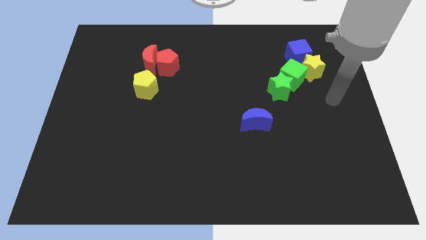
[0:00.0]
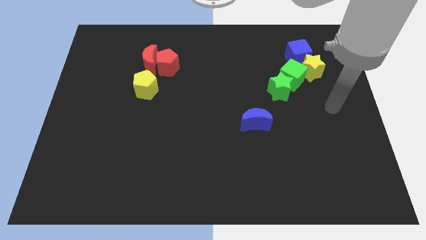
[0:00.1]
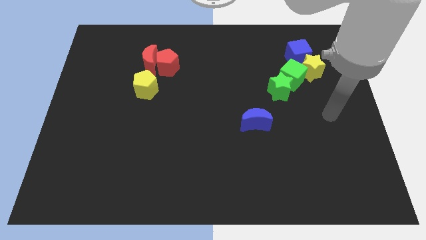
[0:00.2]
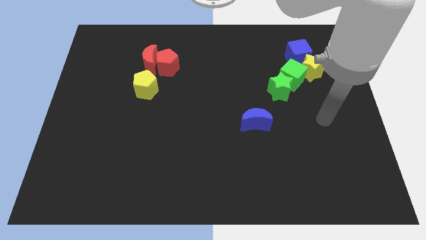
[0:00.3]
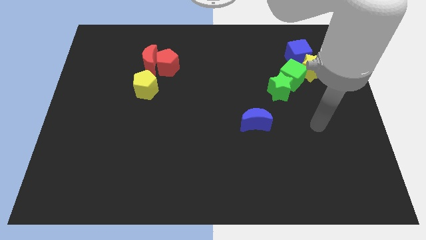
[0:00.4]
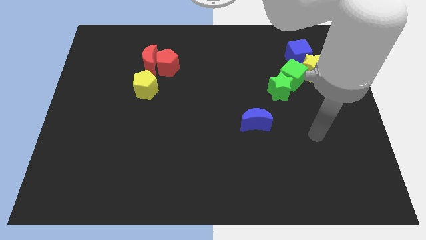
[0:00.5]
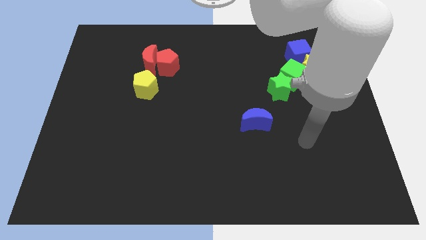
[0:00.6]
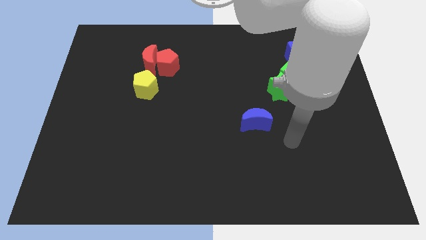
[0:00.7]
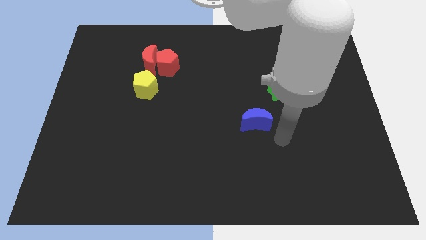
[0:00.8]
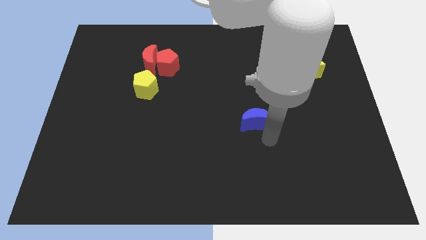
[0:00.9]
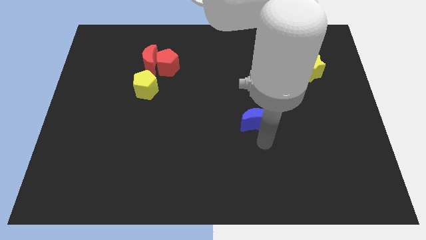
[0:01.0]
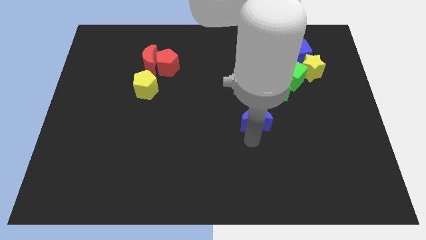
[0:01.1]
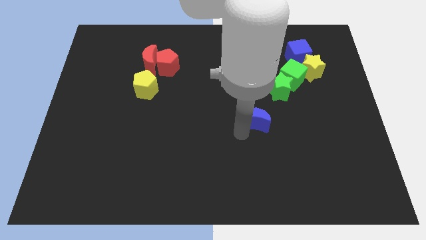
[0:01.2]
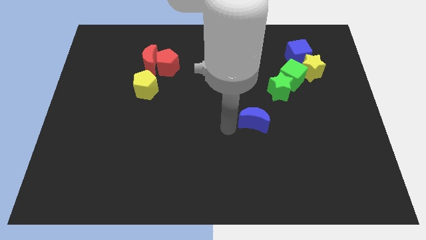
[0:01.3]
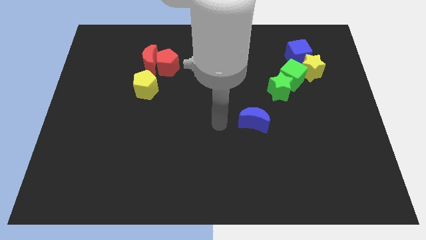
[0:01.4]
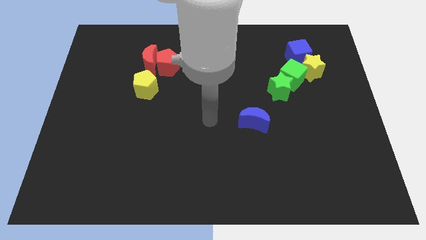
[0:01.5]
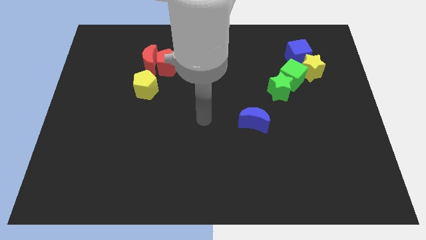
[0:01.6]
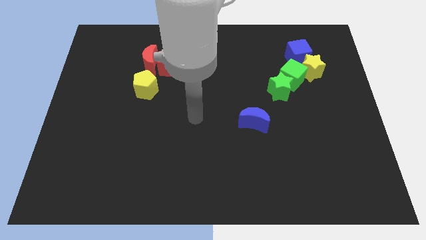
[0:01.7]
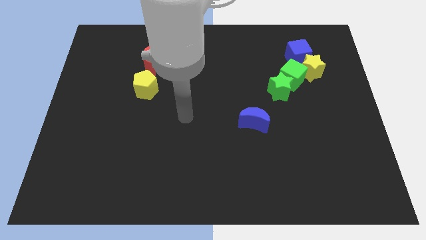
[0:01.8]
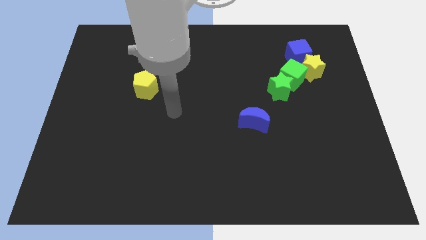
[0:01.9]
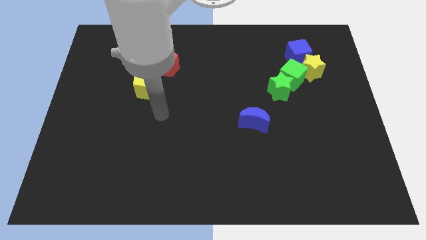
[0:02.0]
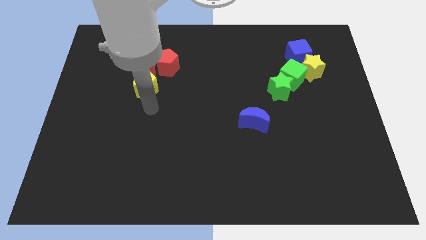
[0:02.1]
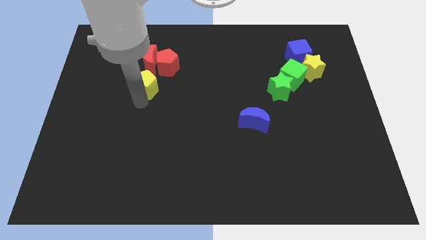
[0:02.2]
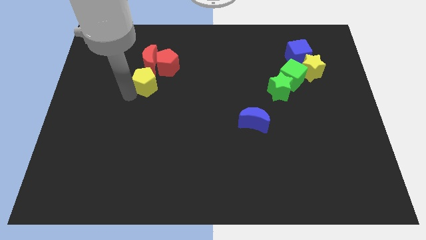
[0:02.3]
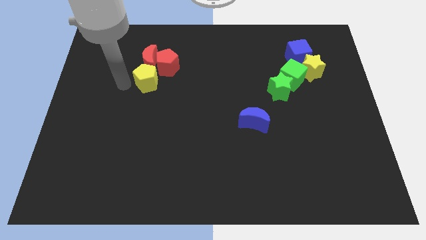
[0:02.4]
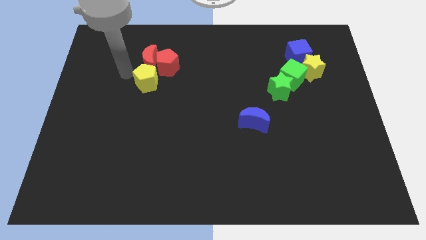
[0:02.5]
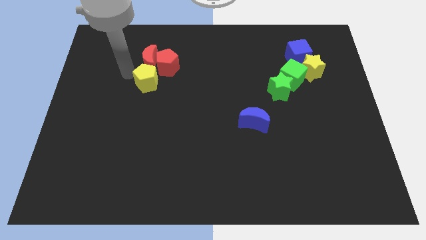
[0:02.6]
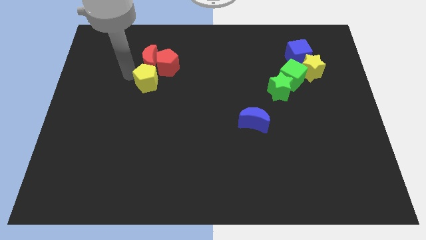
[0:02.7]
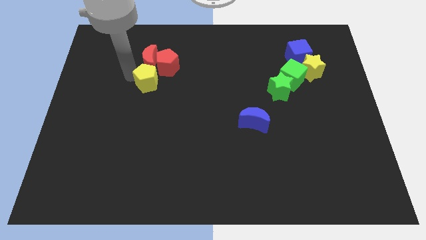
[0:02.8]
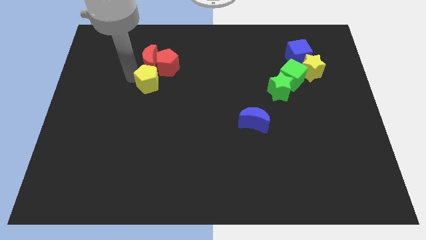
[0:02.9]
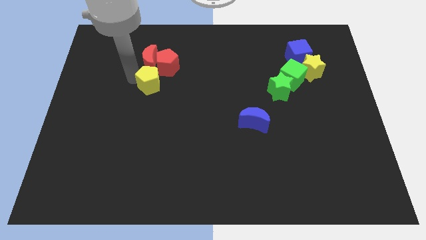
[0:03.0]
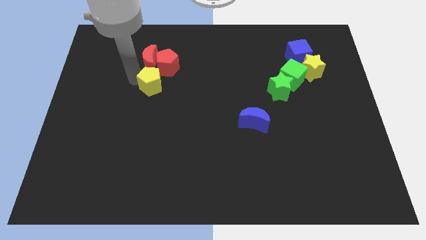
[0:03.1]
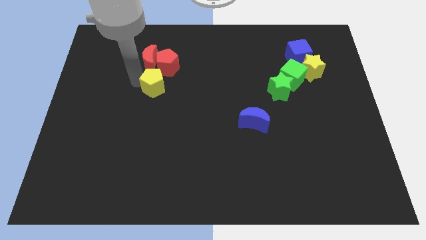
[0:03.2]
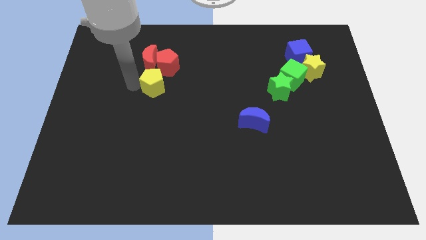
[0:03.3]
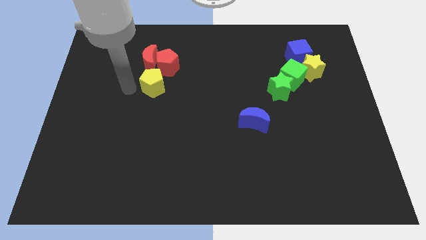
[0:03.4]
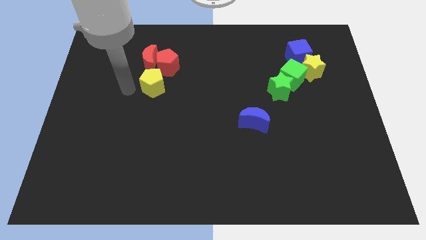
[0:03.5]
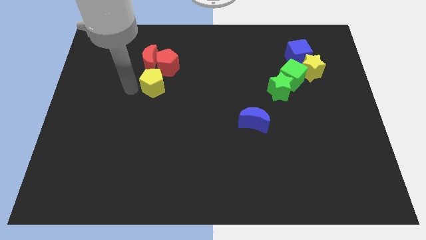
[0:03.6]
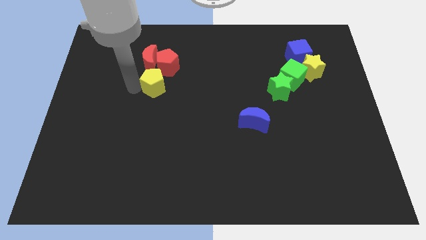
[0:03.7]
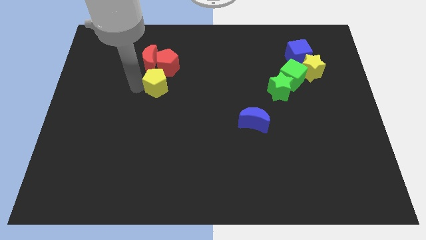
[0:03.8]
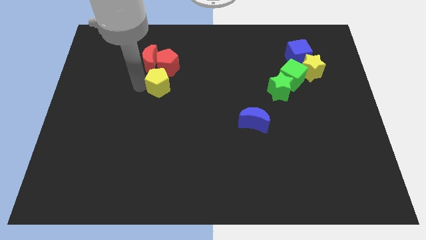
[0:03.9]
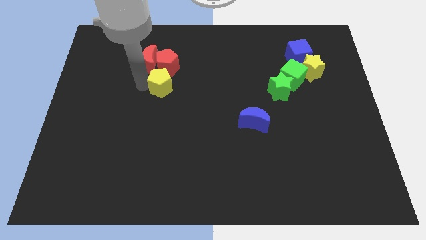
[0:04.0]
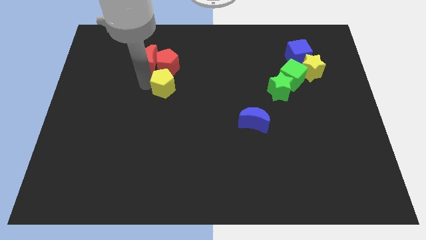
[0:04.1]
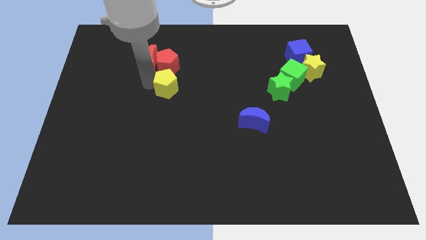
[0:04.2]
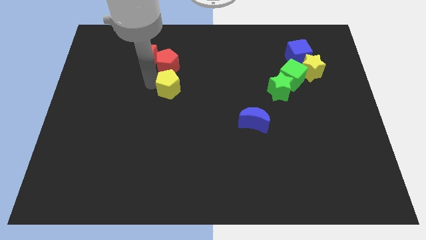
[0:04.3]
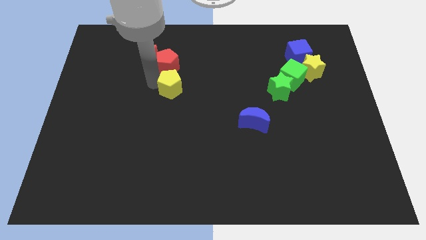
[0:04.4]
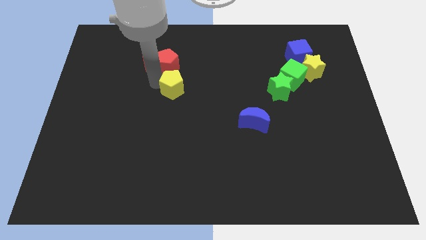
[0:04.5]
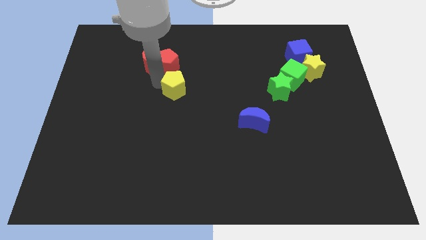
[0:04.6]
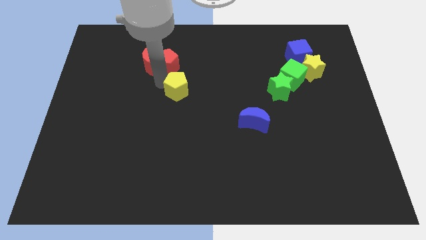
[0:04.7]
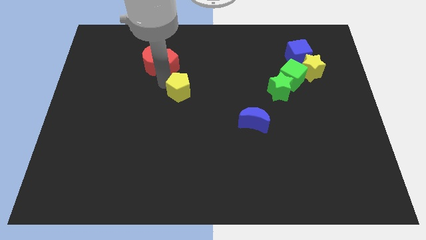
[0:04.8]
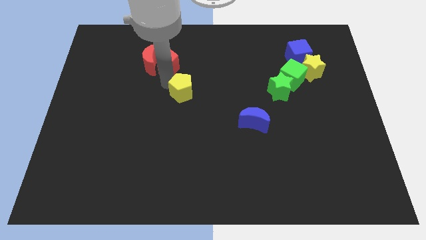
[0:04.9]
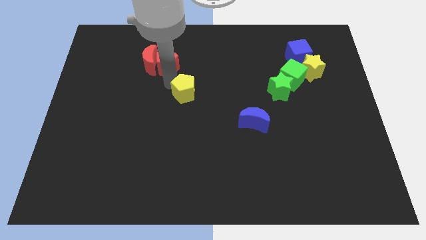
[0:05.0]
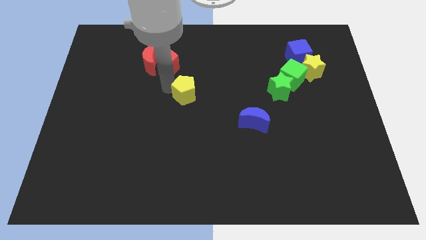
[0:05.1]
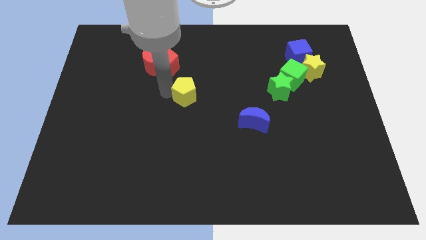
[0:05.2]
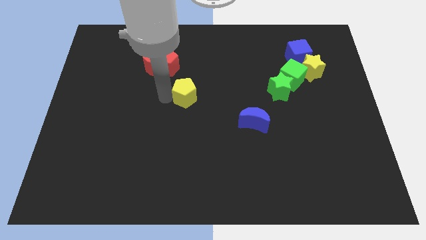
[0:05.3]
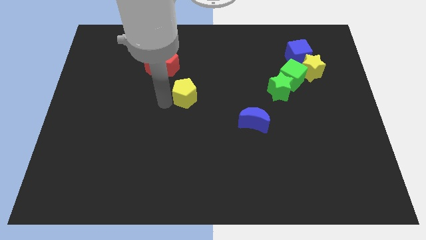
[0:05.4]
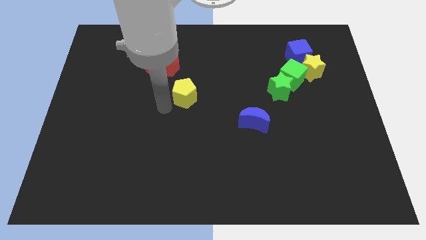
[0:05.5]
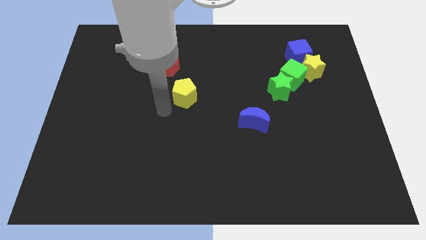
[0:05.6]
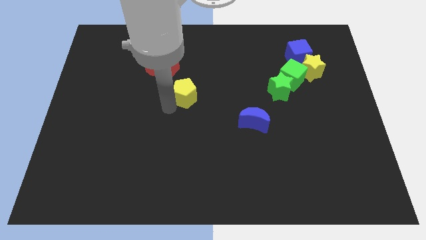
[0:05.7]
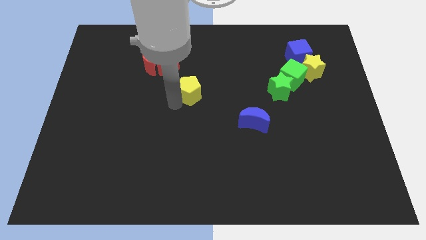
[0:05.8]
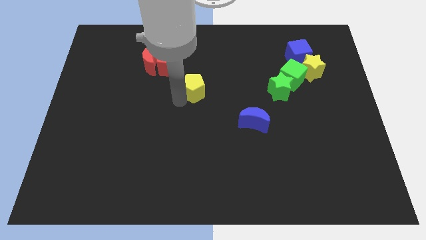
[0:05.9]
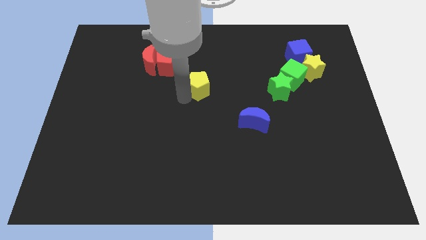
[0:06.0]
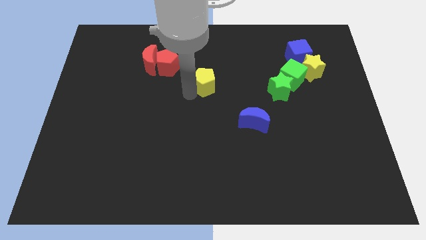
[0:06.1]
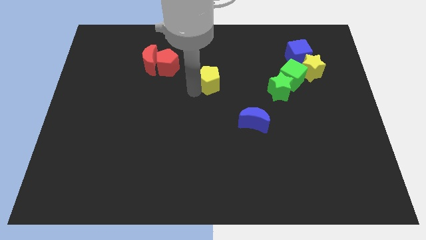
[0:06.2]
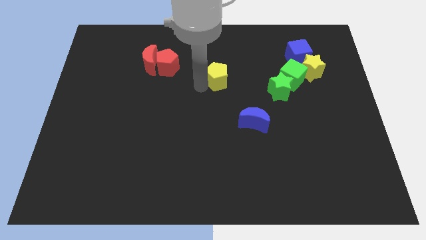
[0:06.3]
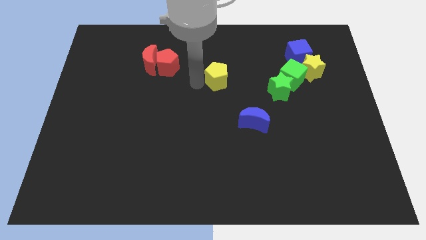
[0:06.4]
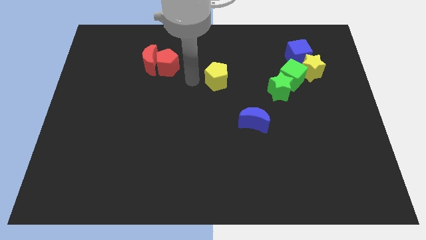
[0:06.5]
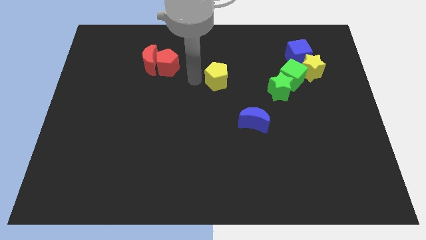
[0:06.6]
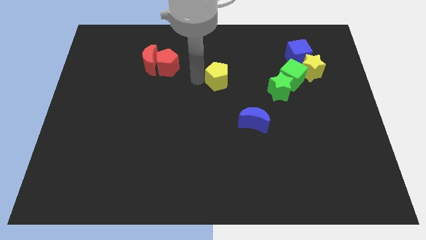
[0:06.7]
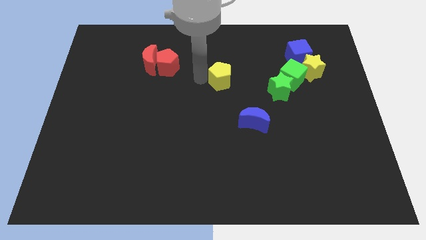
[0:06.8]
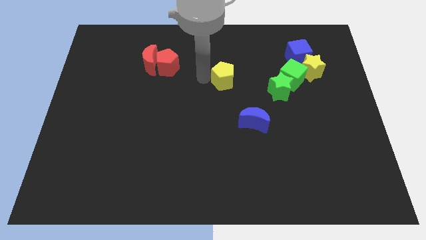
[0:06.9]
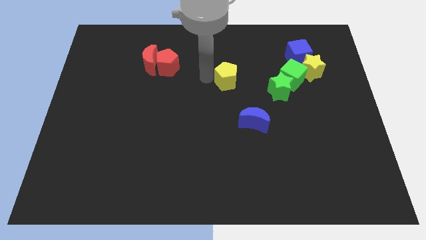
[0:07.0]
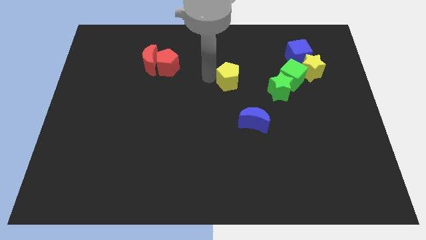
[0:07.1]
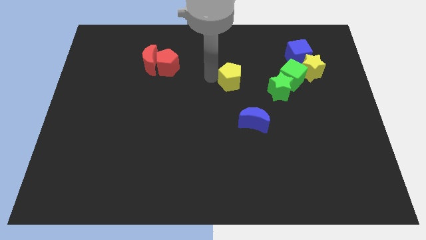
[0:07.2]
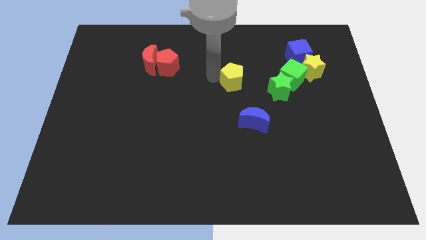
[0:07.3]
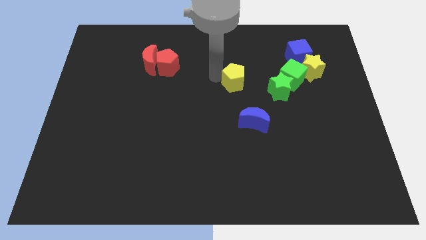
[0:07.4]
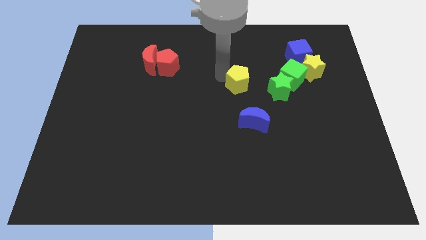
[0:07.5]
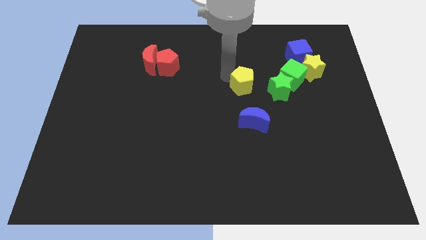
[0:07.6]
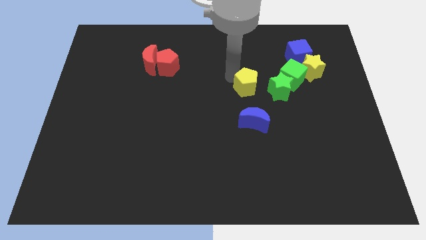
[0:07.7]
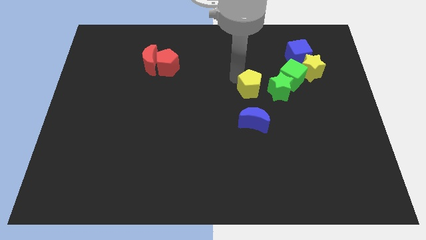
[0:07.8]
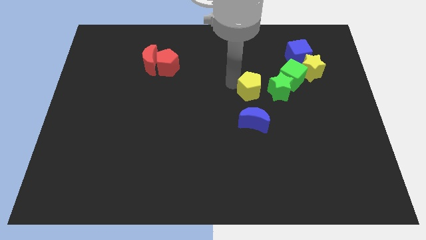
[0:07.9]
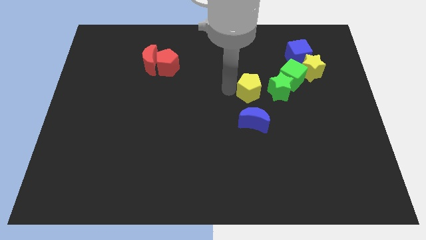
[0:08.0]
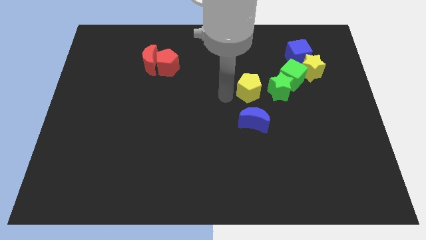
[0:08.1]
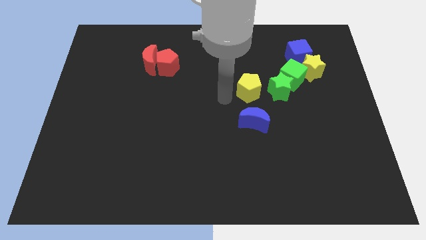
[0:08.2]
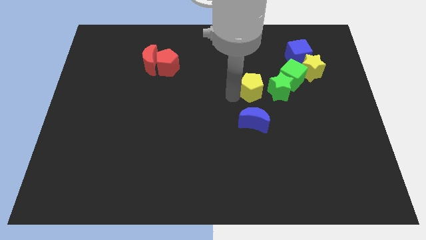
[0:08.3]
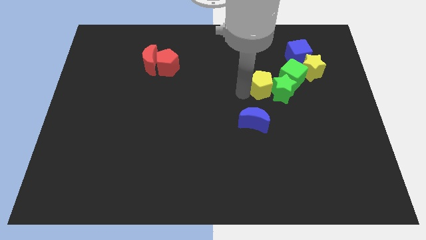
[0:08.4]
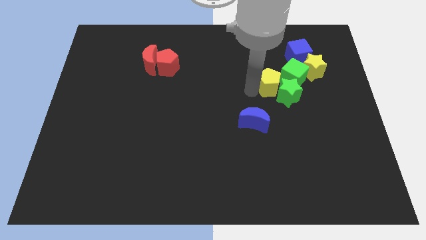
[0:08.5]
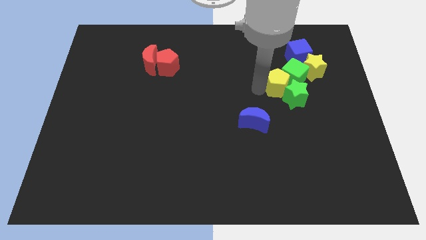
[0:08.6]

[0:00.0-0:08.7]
move the yellow pentagon to the green cube
